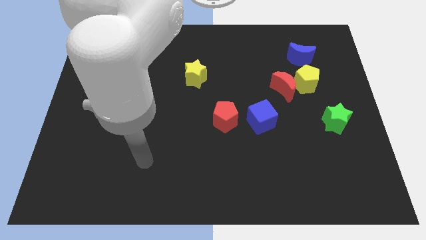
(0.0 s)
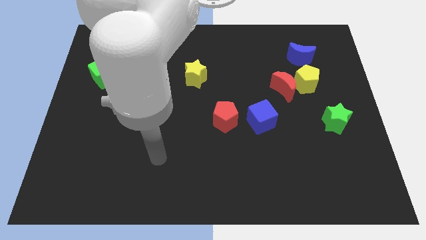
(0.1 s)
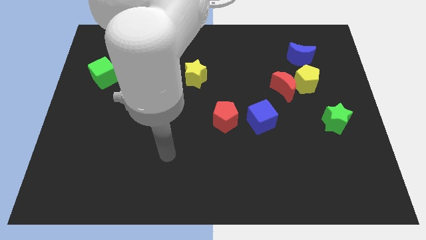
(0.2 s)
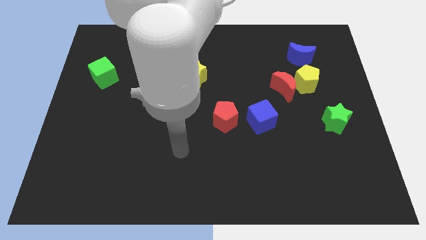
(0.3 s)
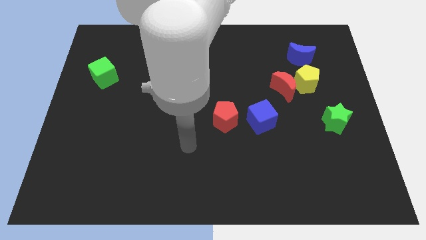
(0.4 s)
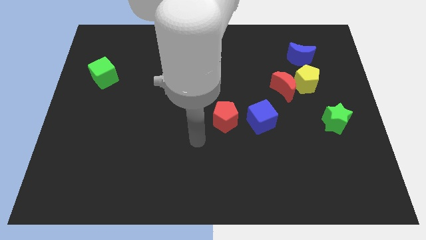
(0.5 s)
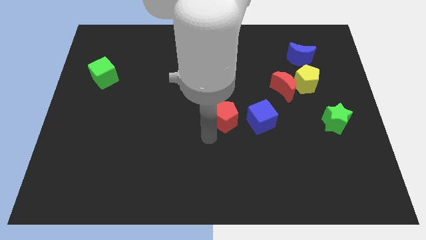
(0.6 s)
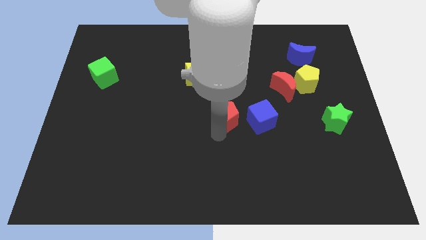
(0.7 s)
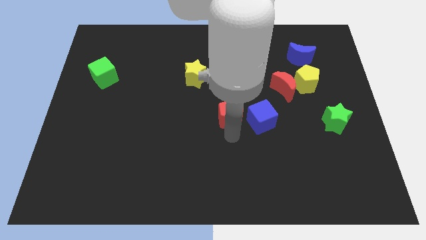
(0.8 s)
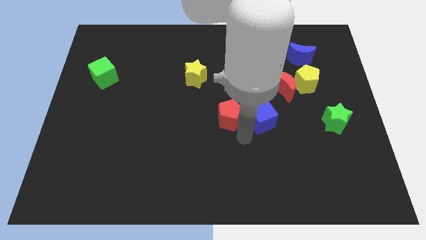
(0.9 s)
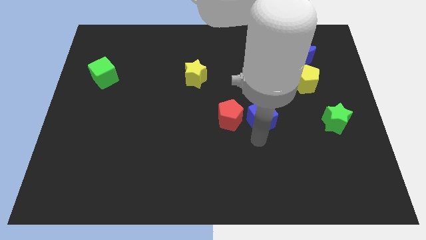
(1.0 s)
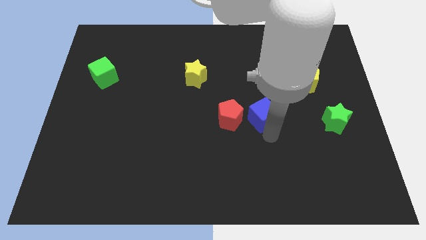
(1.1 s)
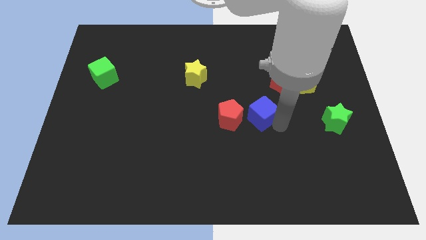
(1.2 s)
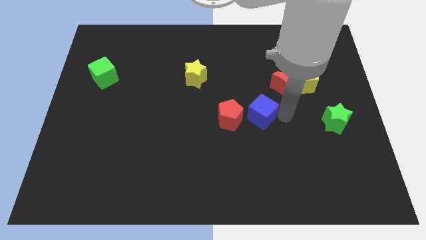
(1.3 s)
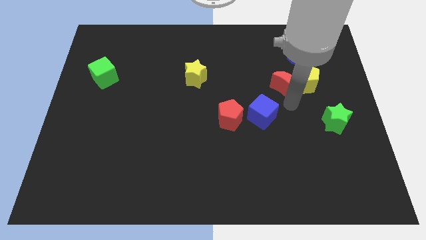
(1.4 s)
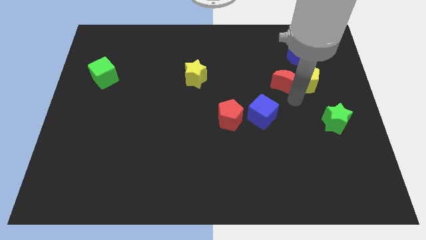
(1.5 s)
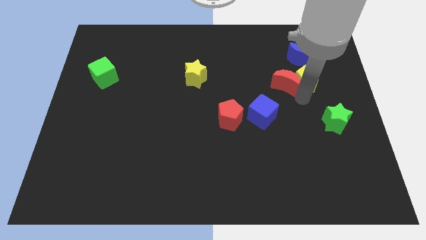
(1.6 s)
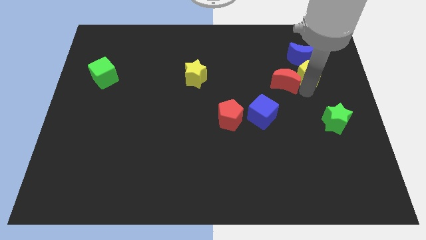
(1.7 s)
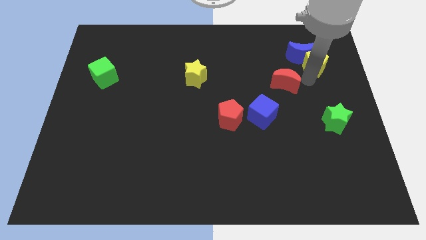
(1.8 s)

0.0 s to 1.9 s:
move the red moon away from the yellow pentagon

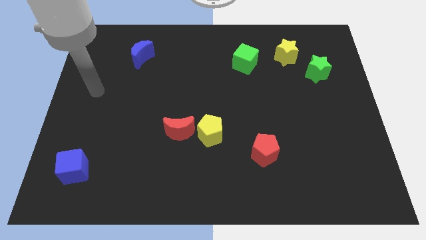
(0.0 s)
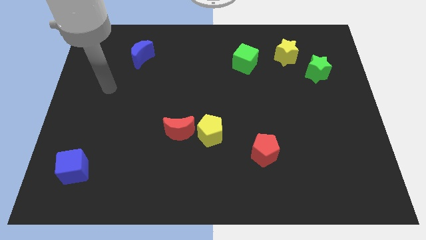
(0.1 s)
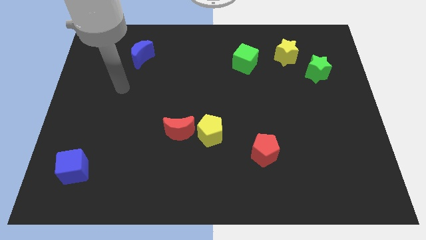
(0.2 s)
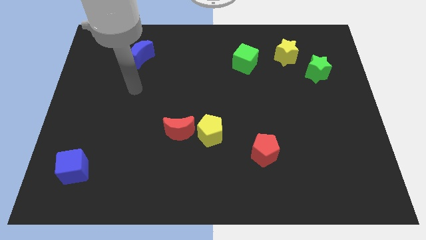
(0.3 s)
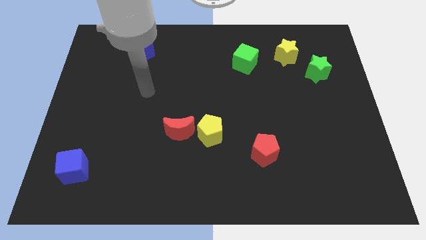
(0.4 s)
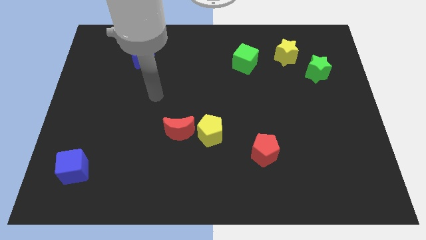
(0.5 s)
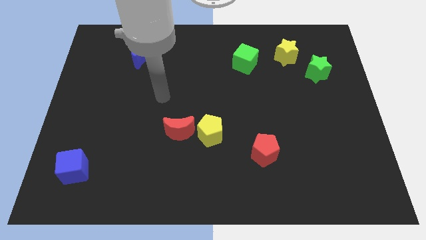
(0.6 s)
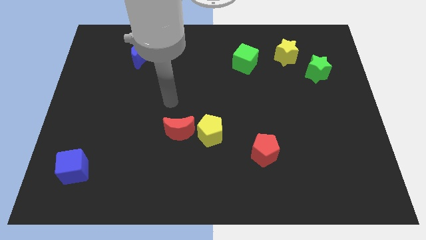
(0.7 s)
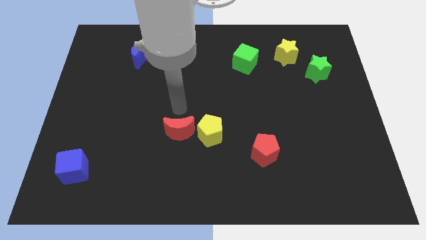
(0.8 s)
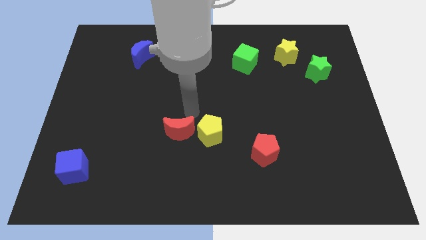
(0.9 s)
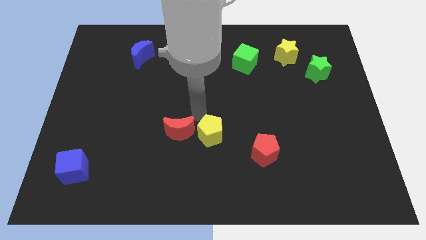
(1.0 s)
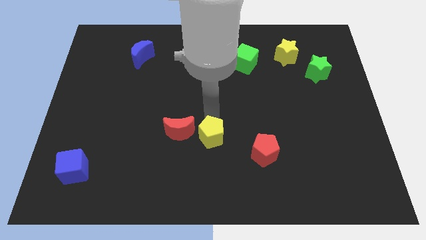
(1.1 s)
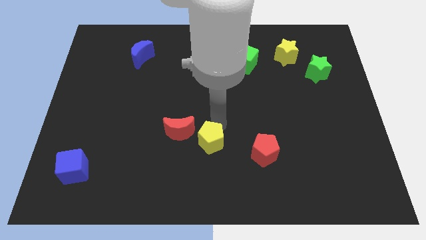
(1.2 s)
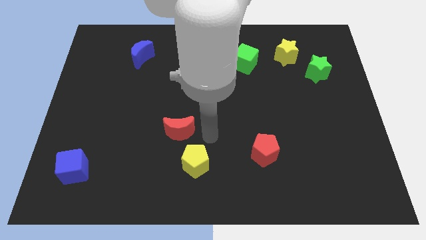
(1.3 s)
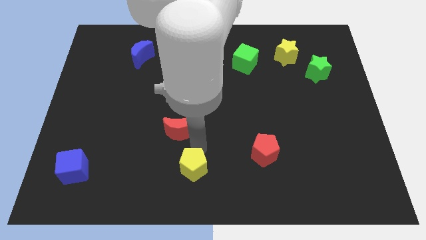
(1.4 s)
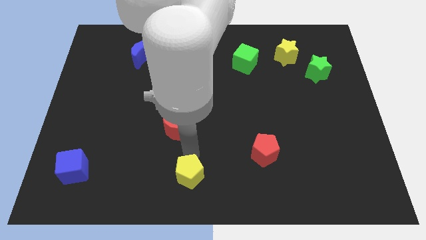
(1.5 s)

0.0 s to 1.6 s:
separate the red moon from the yellow pentagon

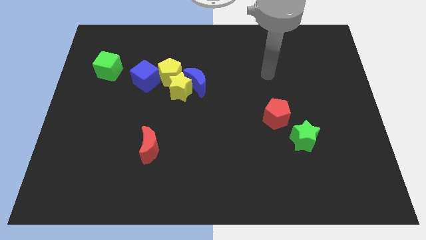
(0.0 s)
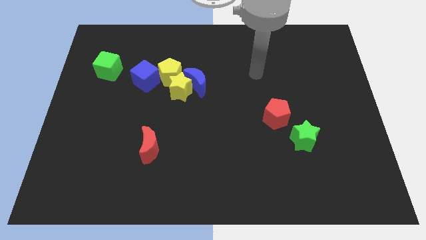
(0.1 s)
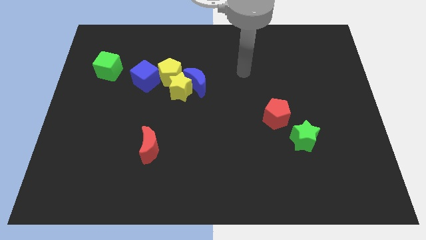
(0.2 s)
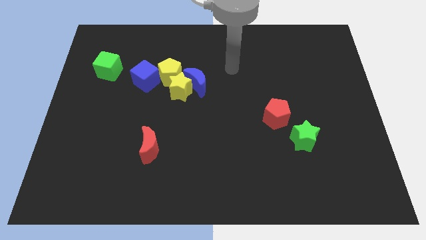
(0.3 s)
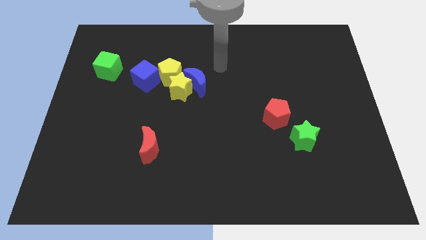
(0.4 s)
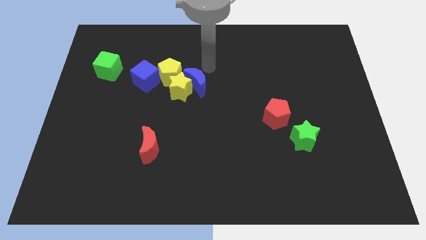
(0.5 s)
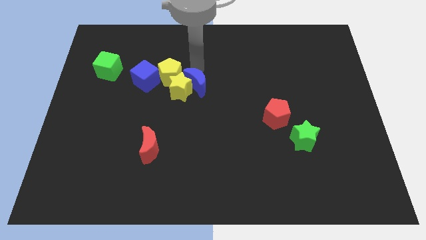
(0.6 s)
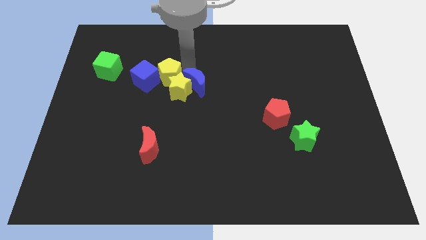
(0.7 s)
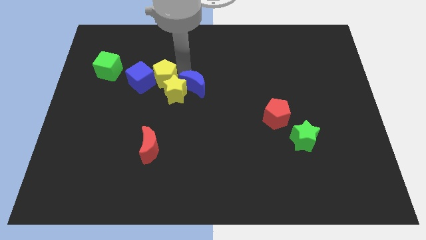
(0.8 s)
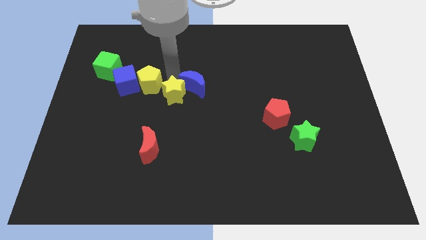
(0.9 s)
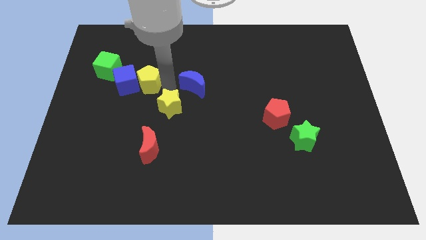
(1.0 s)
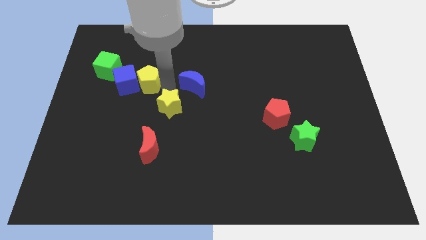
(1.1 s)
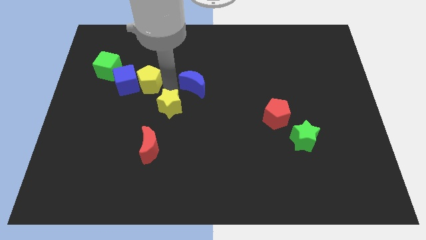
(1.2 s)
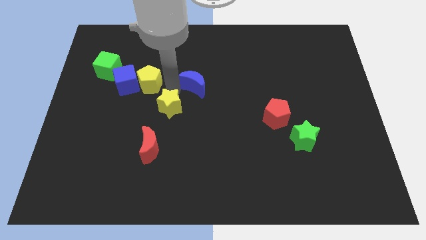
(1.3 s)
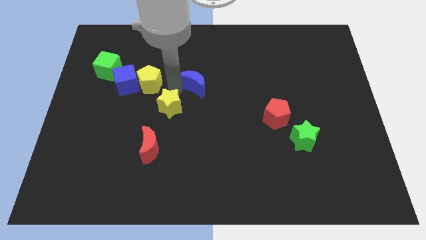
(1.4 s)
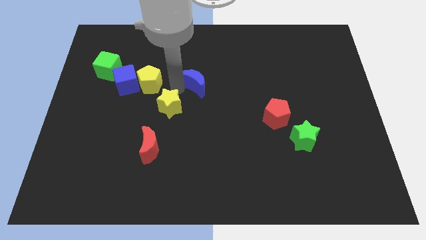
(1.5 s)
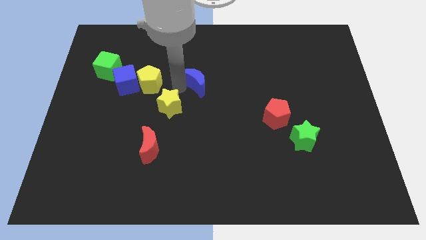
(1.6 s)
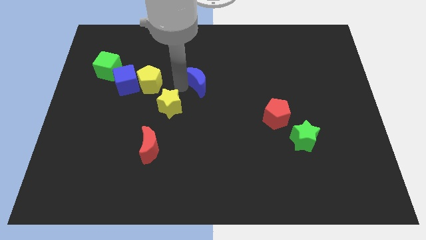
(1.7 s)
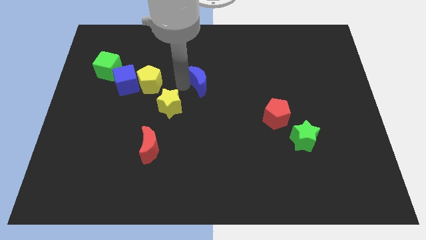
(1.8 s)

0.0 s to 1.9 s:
move the blue moon away from the yellow star and yellow pentagon

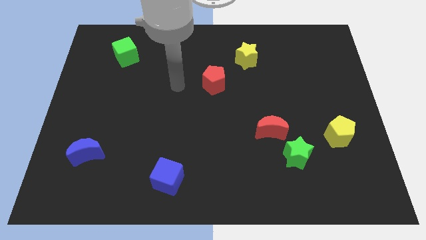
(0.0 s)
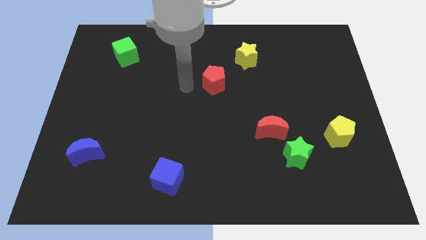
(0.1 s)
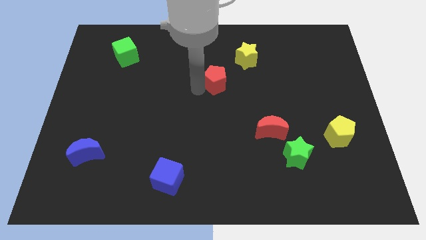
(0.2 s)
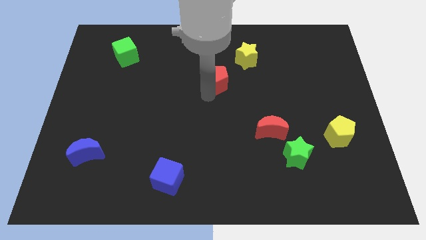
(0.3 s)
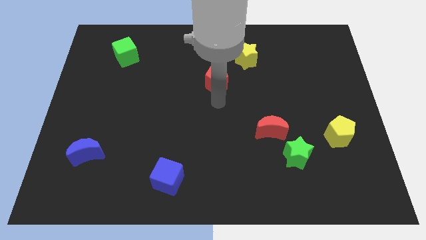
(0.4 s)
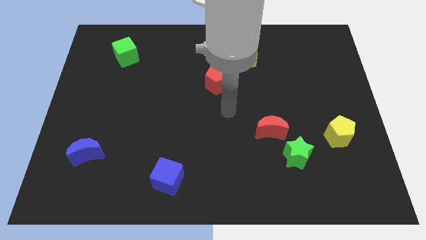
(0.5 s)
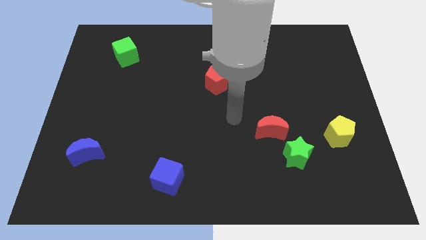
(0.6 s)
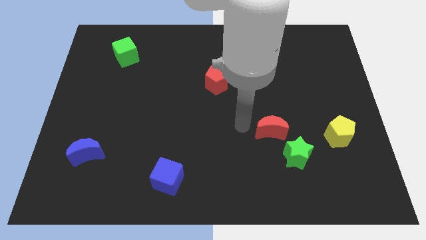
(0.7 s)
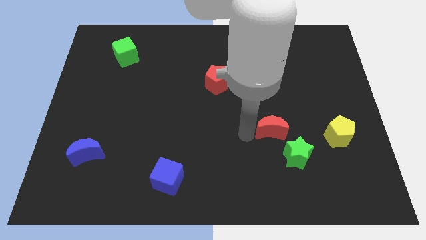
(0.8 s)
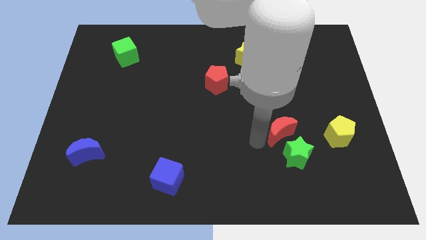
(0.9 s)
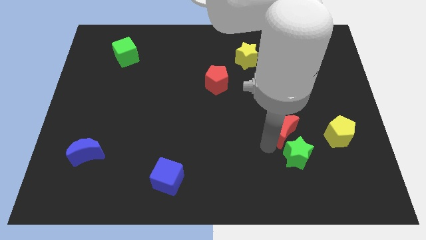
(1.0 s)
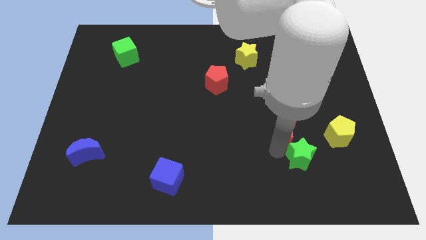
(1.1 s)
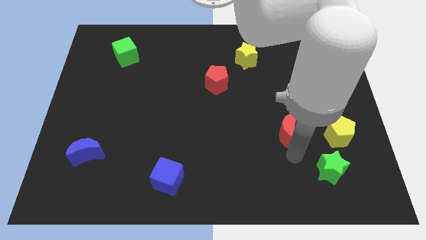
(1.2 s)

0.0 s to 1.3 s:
separate the red moon from the green star

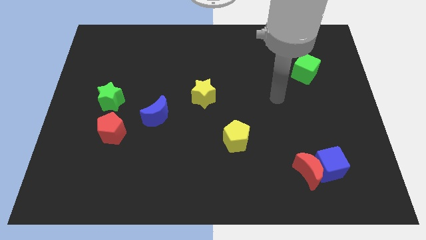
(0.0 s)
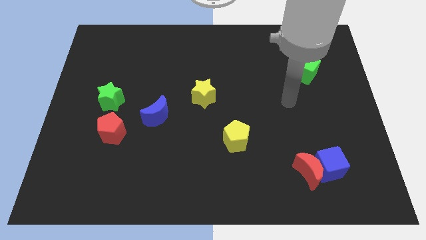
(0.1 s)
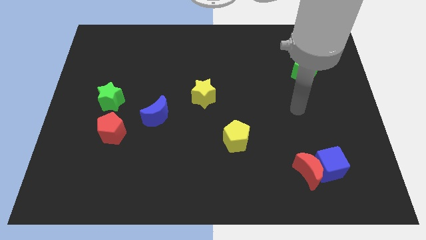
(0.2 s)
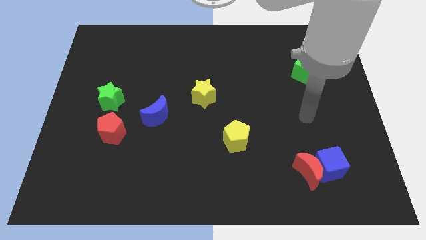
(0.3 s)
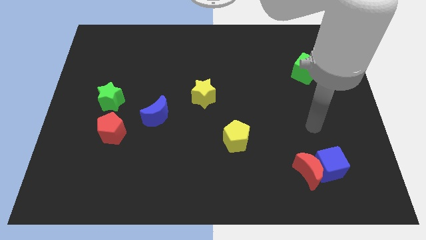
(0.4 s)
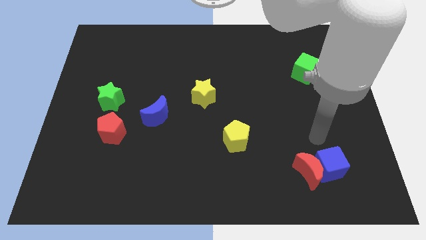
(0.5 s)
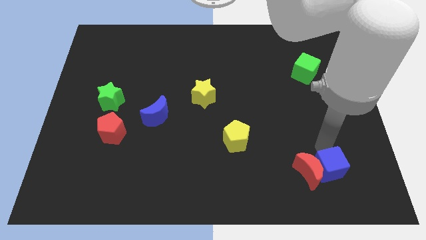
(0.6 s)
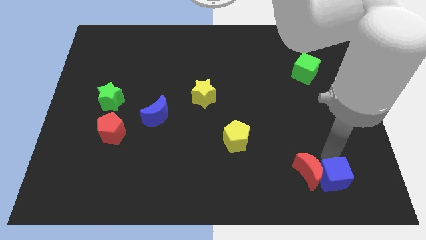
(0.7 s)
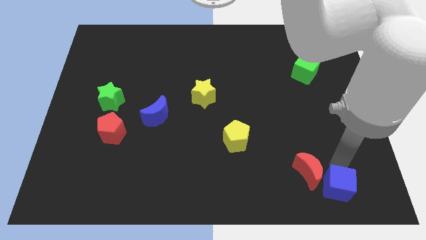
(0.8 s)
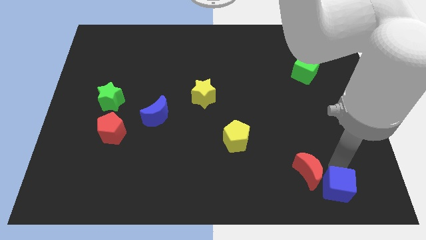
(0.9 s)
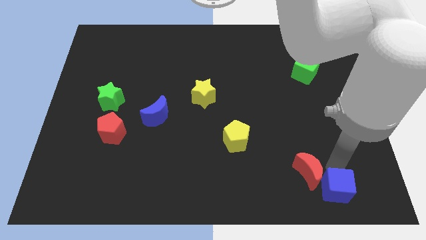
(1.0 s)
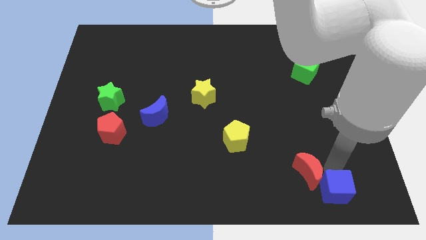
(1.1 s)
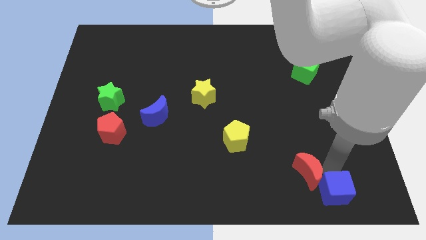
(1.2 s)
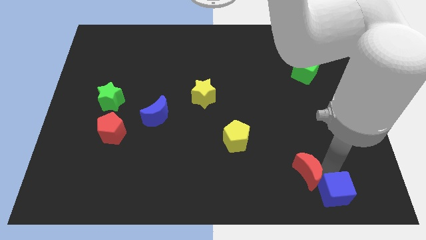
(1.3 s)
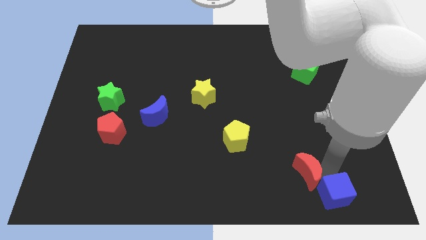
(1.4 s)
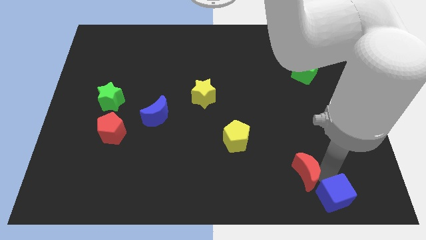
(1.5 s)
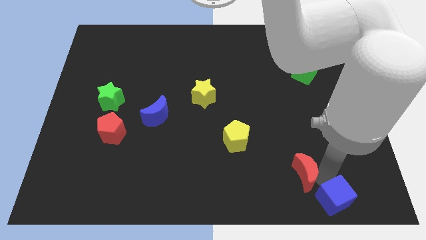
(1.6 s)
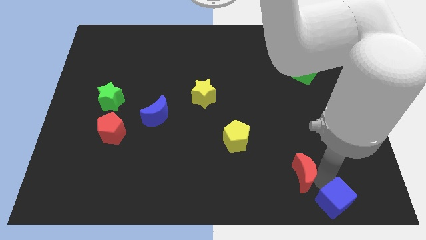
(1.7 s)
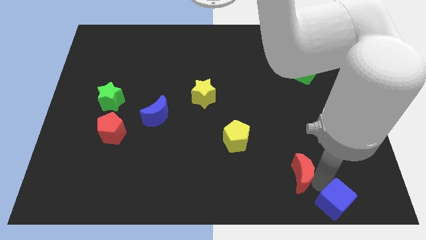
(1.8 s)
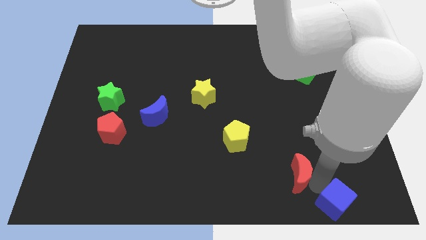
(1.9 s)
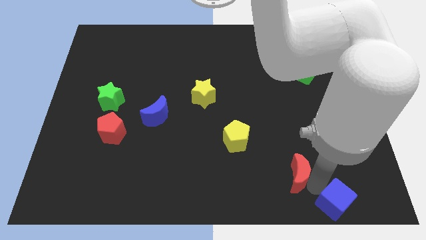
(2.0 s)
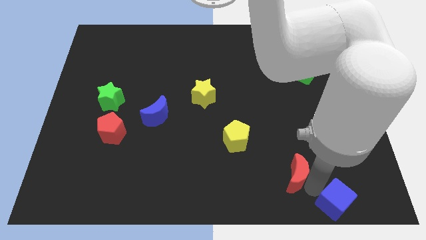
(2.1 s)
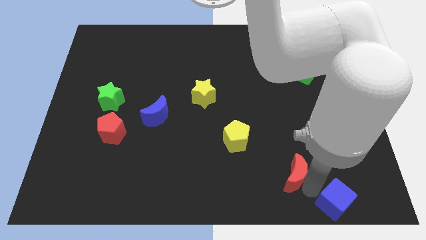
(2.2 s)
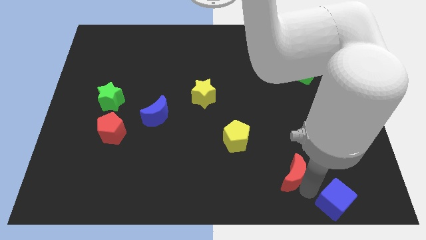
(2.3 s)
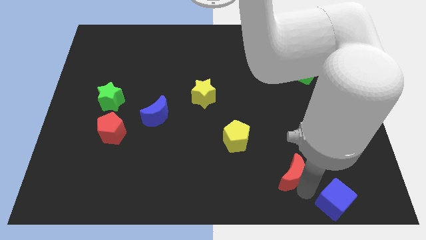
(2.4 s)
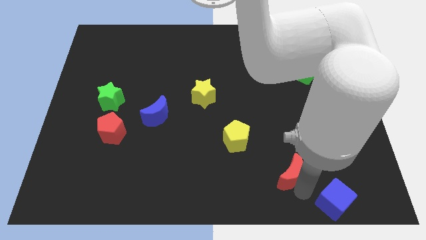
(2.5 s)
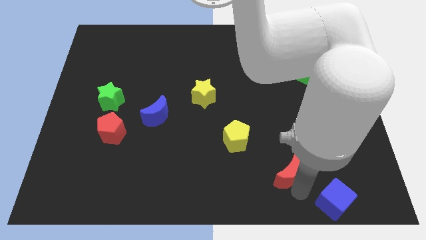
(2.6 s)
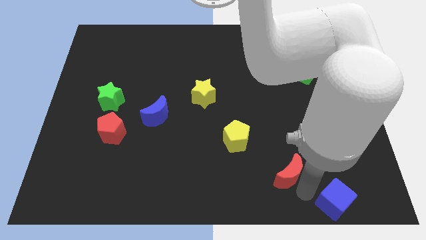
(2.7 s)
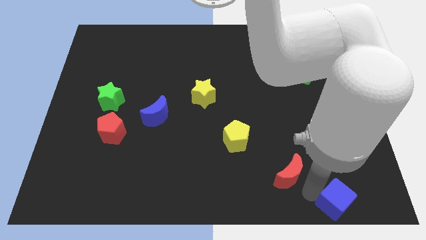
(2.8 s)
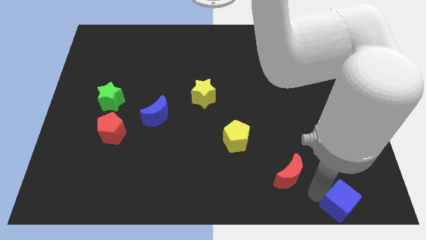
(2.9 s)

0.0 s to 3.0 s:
move the red moon away from the blue cube
